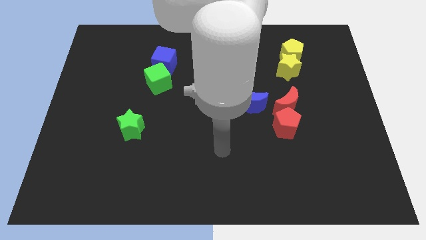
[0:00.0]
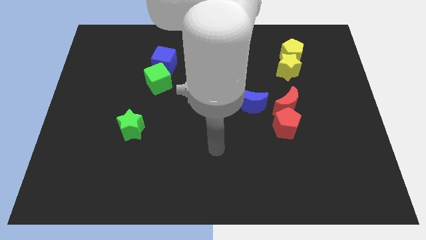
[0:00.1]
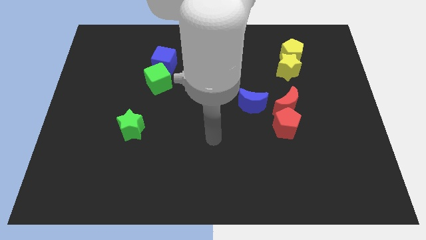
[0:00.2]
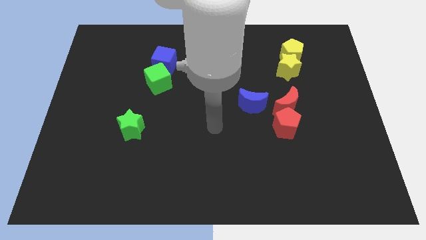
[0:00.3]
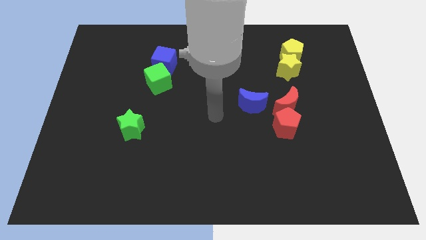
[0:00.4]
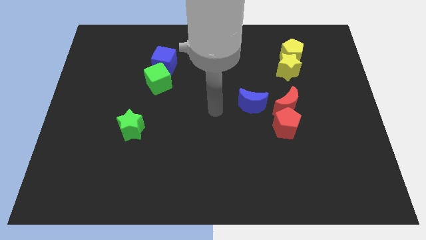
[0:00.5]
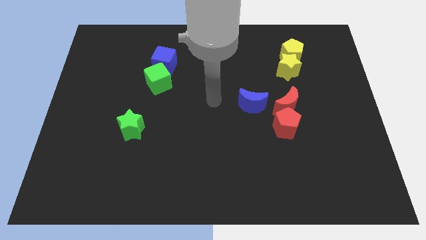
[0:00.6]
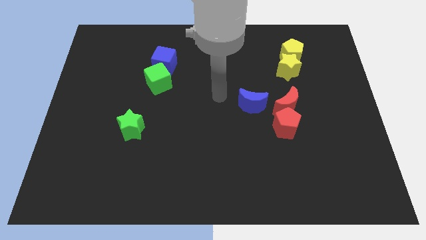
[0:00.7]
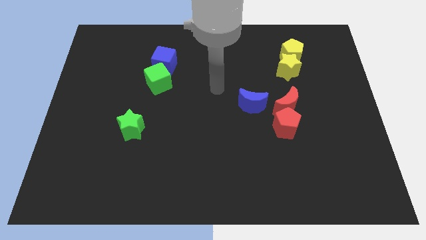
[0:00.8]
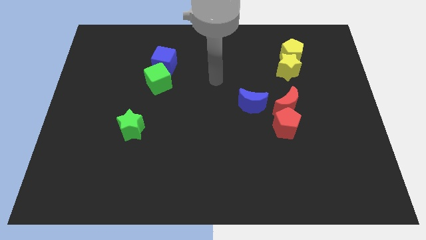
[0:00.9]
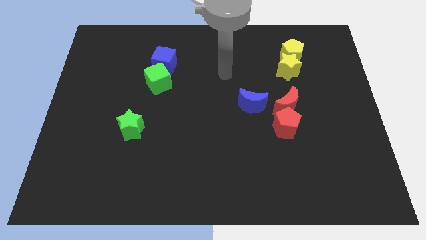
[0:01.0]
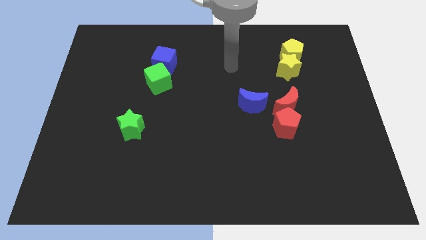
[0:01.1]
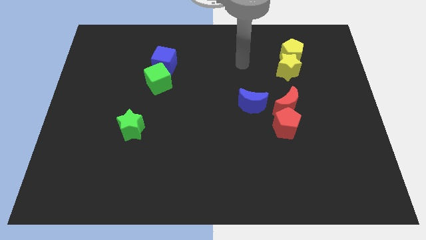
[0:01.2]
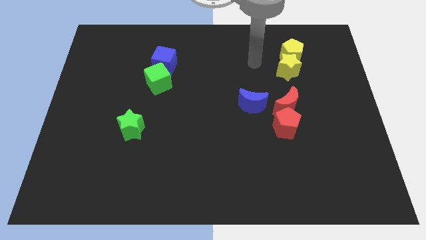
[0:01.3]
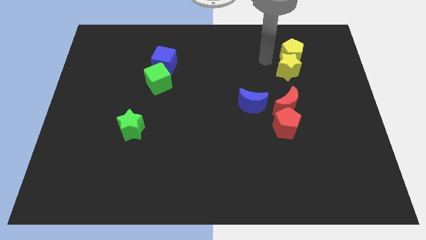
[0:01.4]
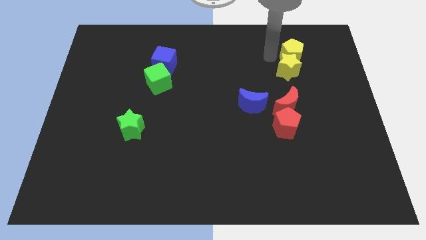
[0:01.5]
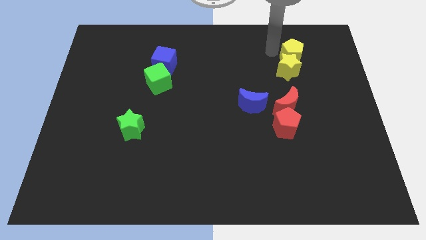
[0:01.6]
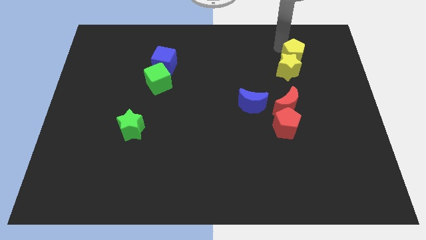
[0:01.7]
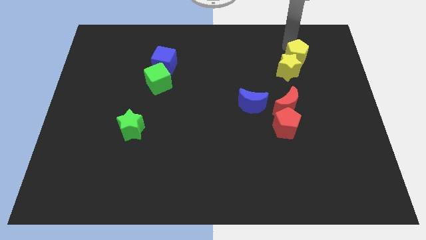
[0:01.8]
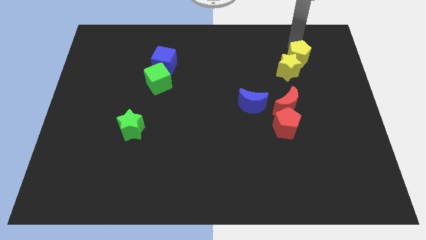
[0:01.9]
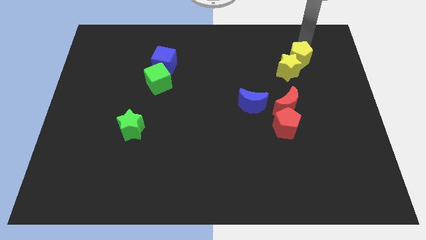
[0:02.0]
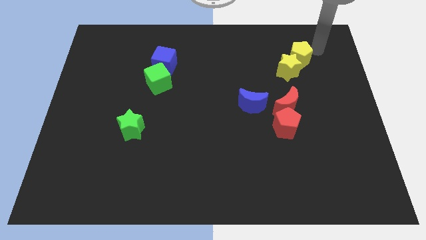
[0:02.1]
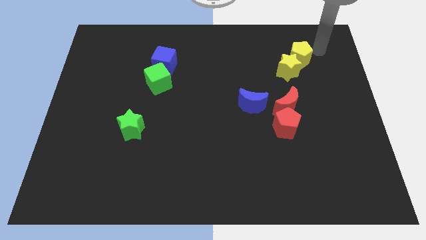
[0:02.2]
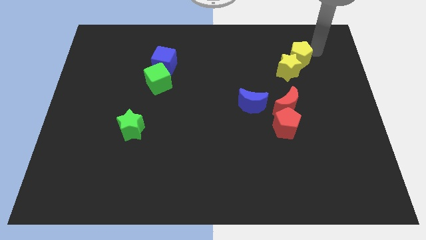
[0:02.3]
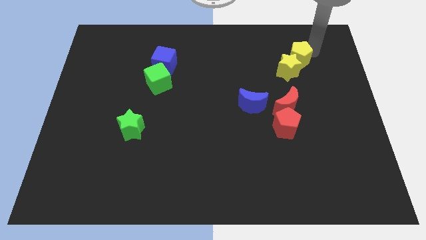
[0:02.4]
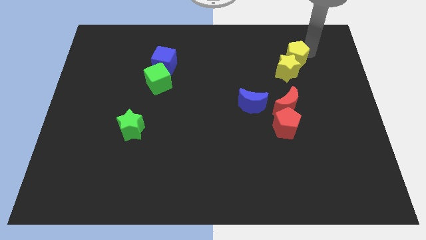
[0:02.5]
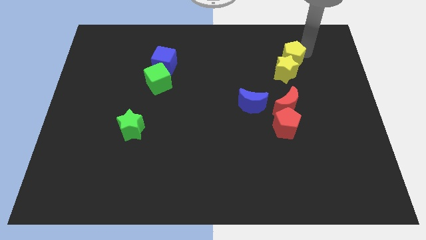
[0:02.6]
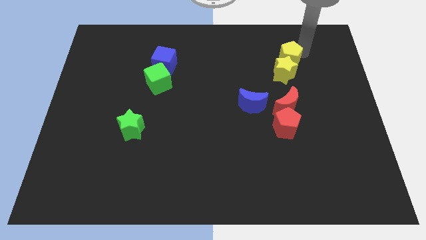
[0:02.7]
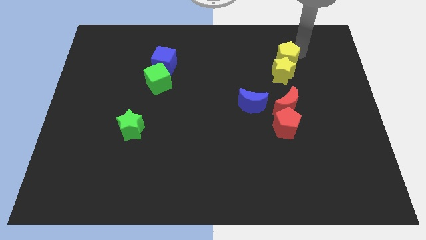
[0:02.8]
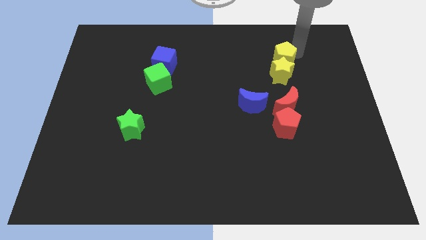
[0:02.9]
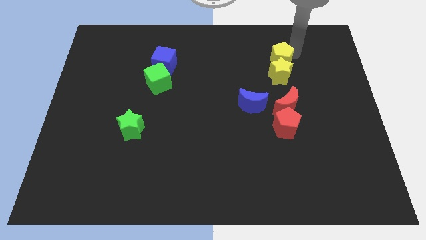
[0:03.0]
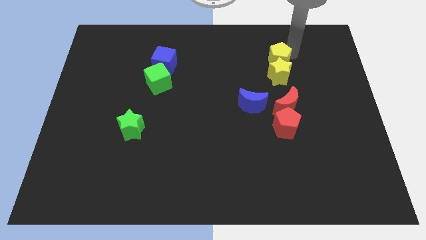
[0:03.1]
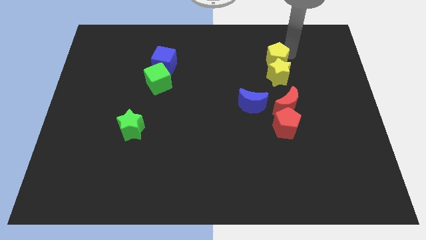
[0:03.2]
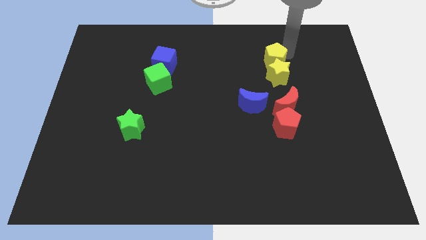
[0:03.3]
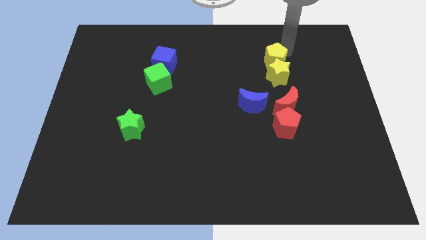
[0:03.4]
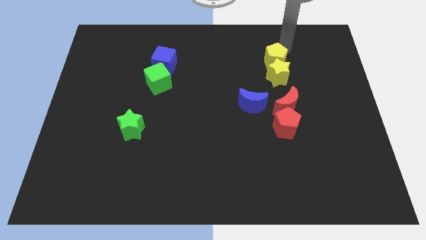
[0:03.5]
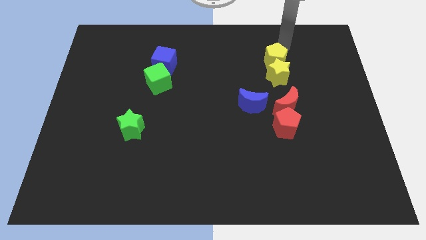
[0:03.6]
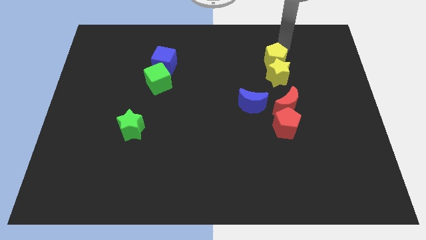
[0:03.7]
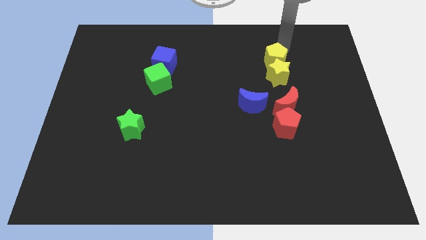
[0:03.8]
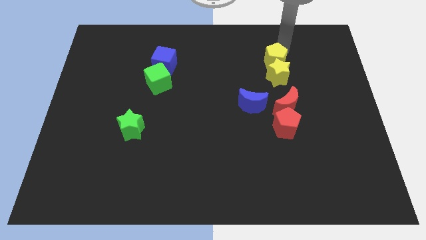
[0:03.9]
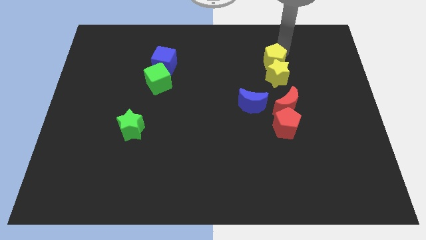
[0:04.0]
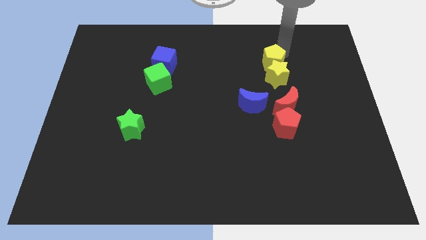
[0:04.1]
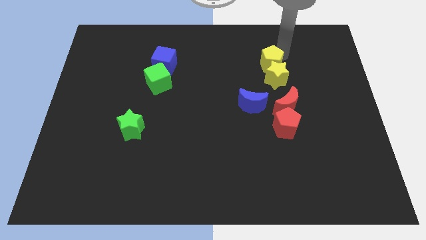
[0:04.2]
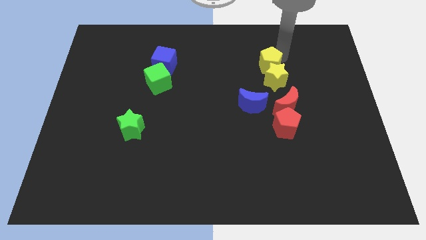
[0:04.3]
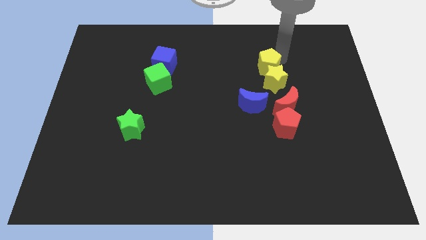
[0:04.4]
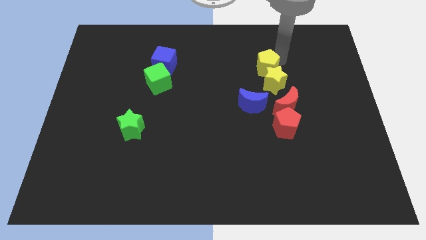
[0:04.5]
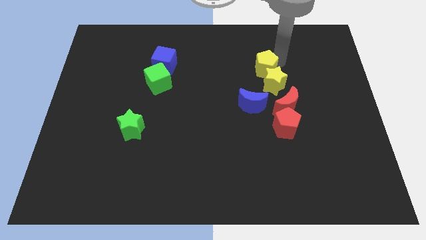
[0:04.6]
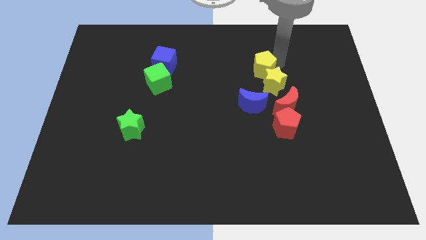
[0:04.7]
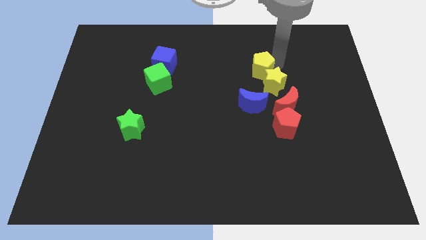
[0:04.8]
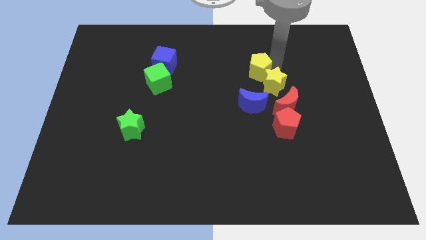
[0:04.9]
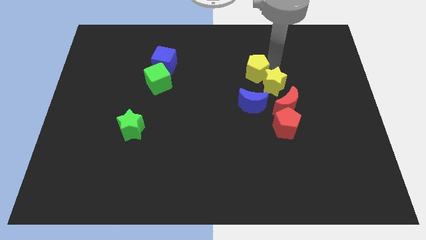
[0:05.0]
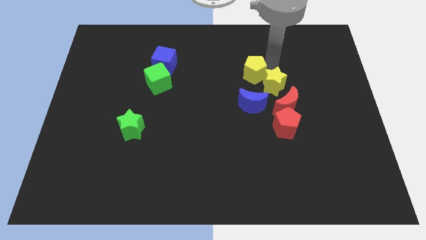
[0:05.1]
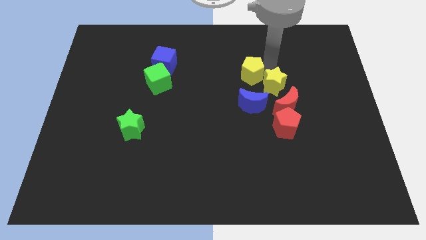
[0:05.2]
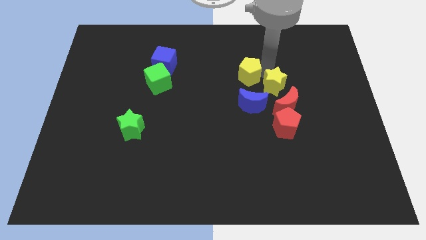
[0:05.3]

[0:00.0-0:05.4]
put the yellow pentagon to the center of the board

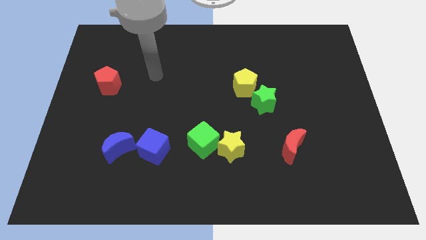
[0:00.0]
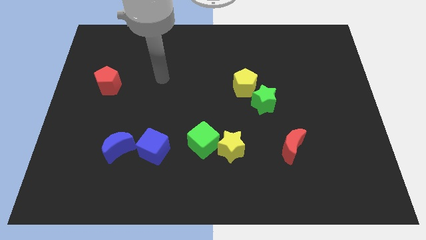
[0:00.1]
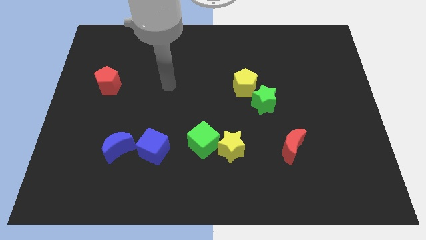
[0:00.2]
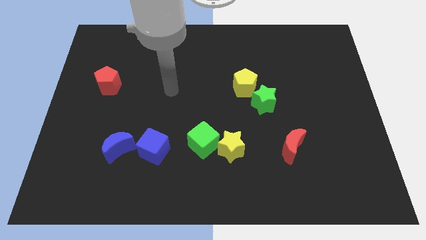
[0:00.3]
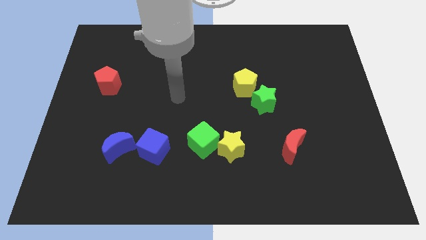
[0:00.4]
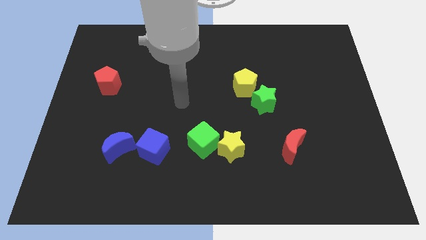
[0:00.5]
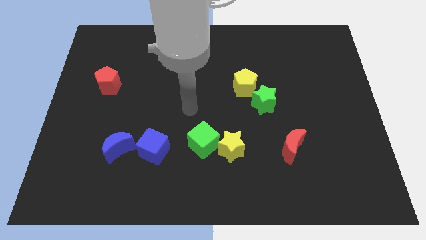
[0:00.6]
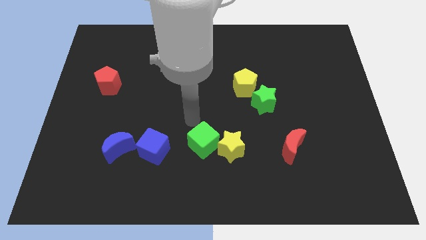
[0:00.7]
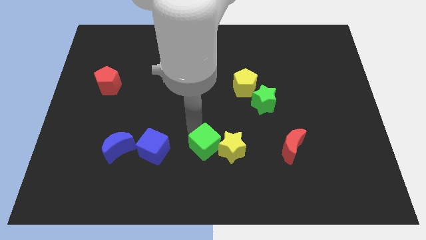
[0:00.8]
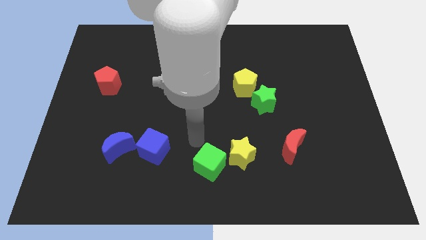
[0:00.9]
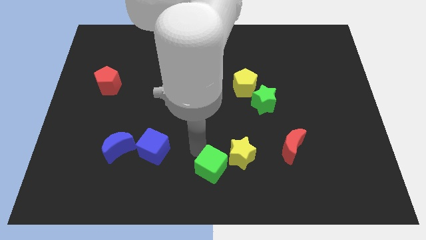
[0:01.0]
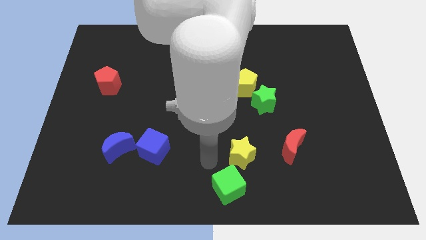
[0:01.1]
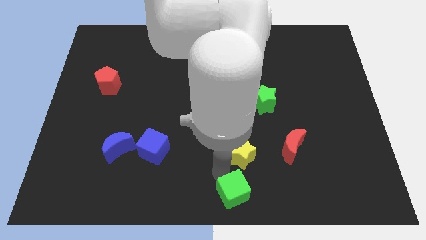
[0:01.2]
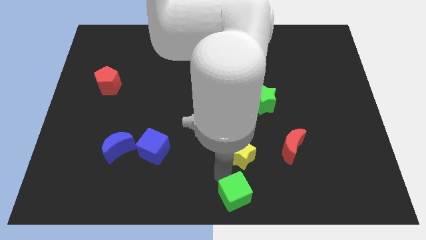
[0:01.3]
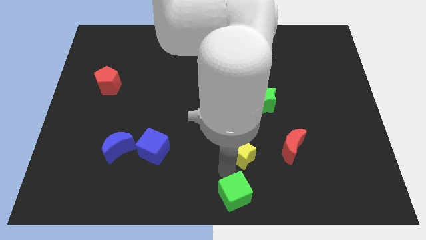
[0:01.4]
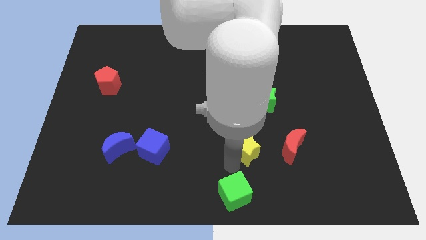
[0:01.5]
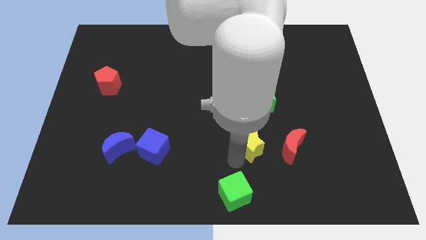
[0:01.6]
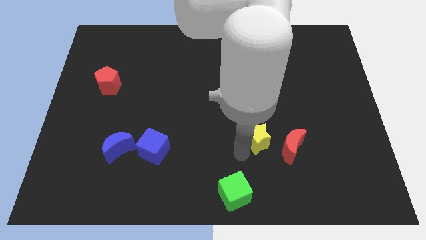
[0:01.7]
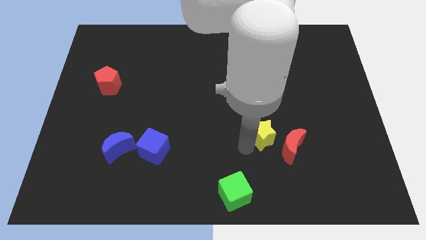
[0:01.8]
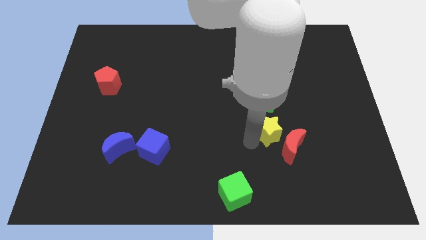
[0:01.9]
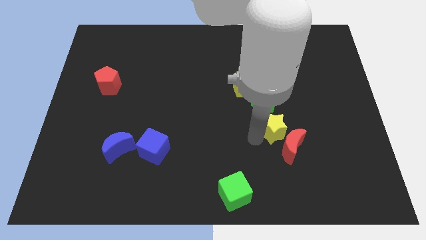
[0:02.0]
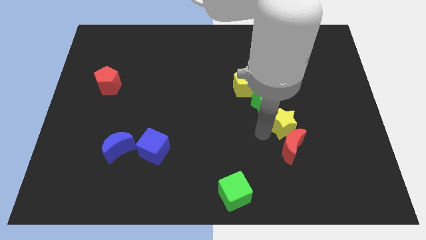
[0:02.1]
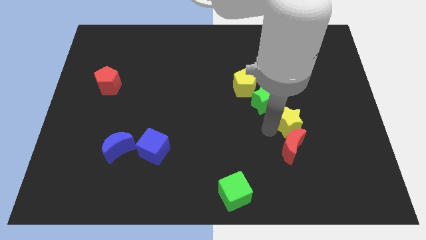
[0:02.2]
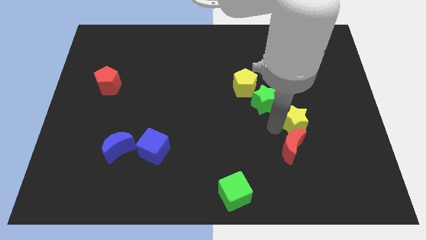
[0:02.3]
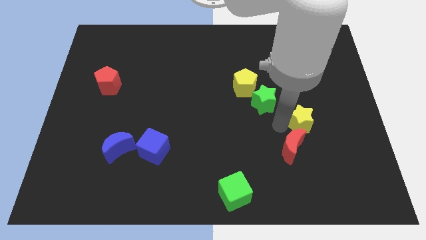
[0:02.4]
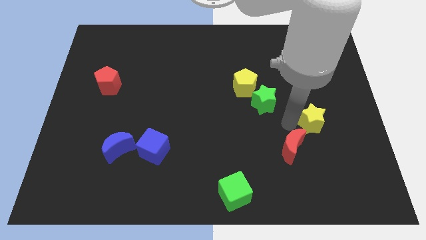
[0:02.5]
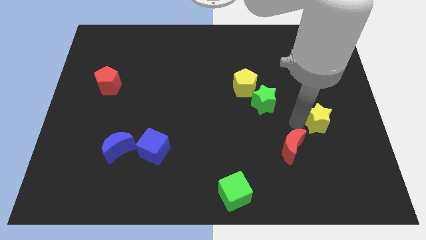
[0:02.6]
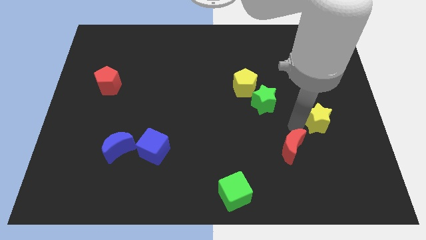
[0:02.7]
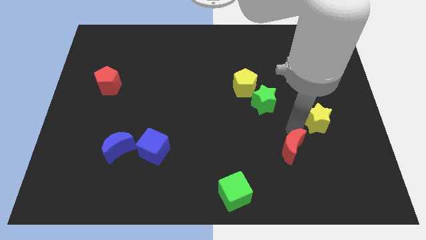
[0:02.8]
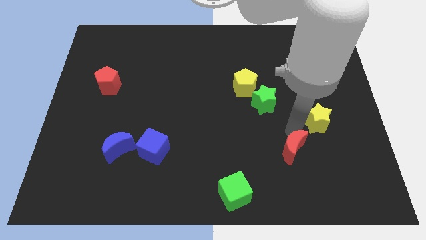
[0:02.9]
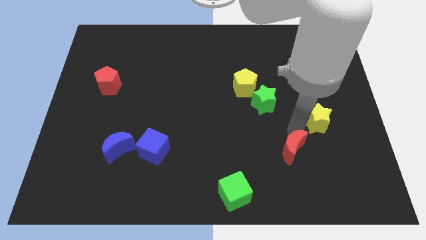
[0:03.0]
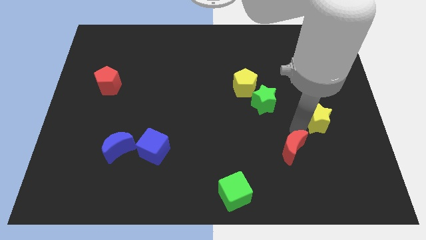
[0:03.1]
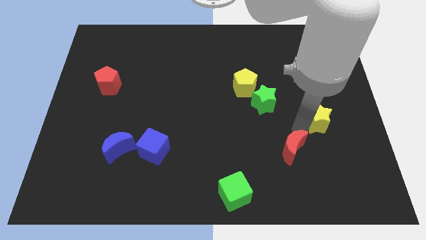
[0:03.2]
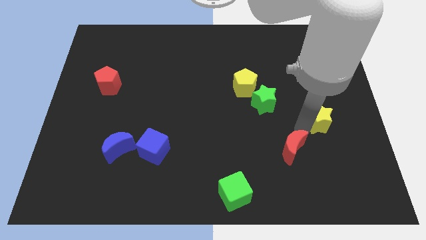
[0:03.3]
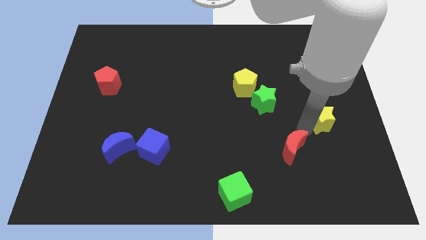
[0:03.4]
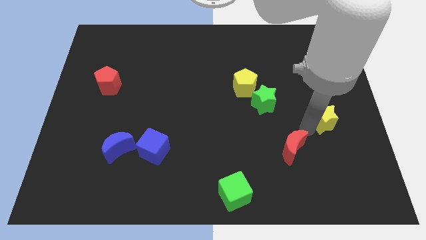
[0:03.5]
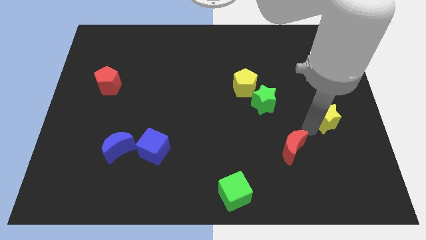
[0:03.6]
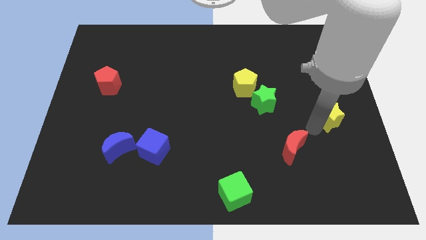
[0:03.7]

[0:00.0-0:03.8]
move the yellow star to the center right
